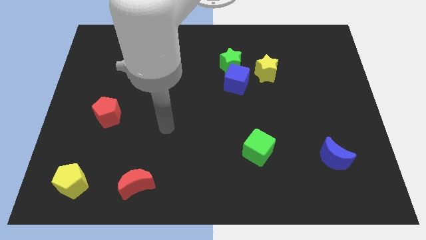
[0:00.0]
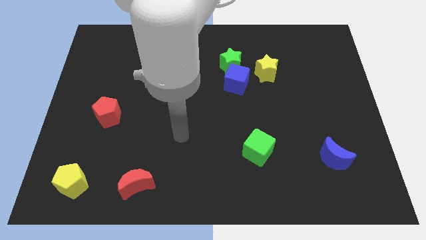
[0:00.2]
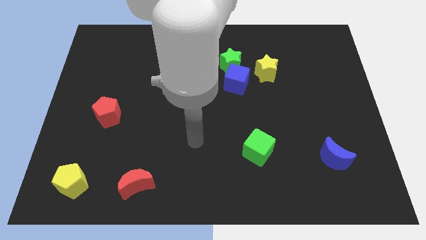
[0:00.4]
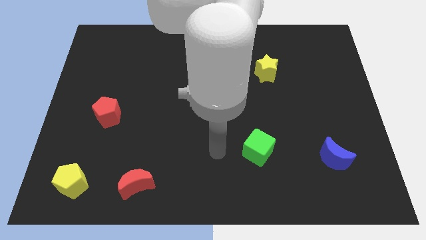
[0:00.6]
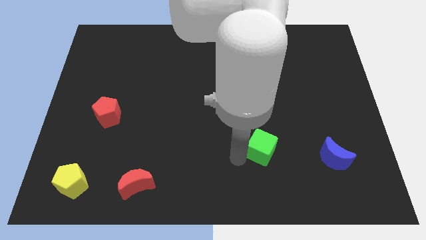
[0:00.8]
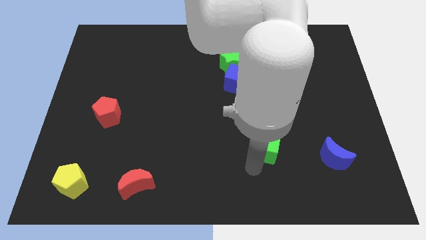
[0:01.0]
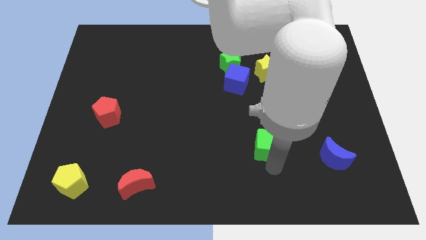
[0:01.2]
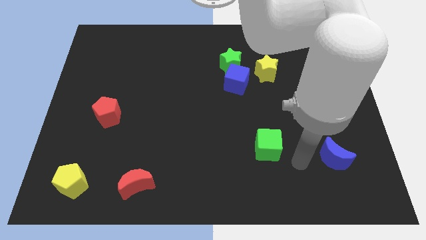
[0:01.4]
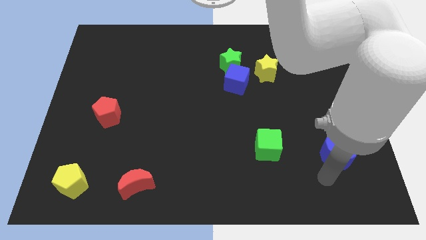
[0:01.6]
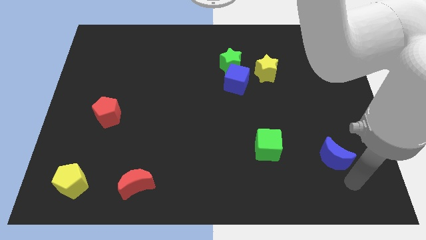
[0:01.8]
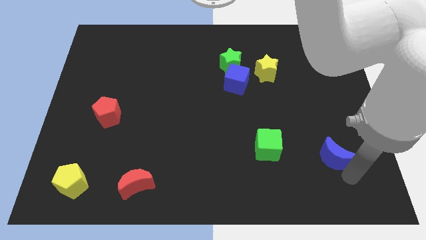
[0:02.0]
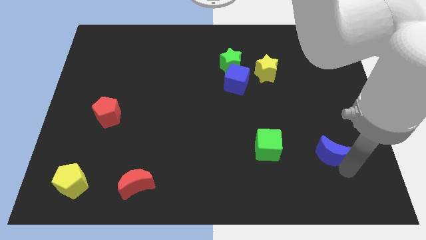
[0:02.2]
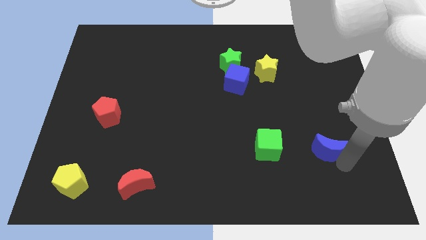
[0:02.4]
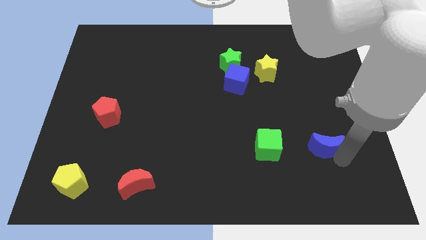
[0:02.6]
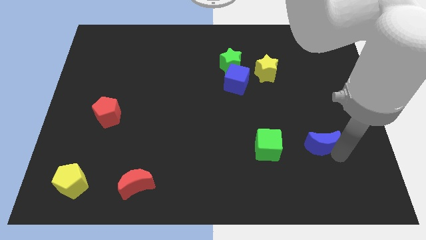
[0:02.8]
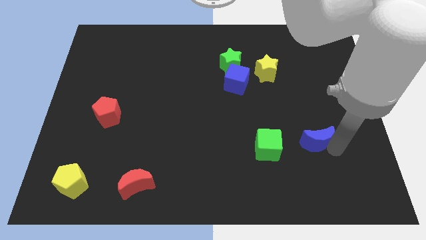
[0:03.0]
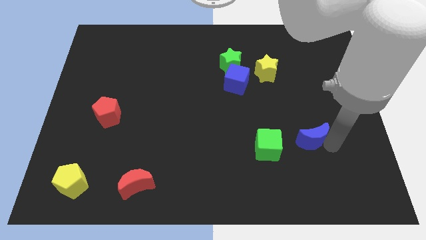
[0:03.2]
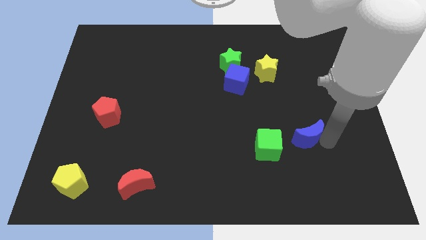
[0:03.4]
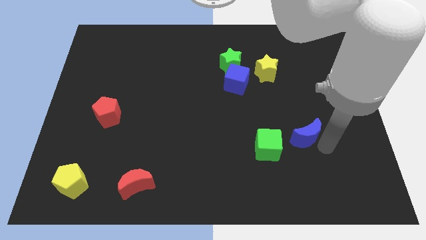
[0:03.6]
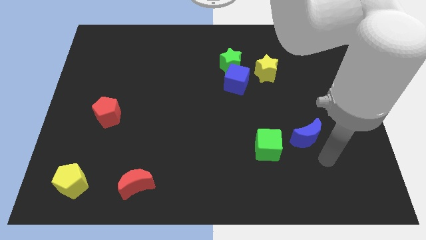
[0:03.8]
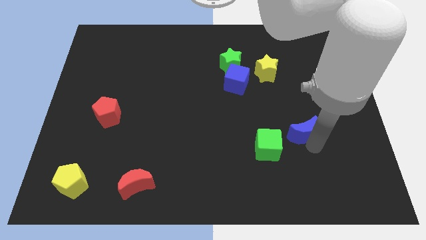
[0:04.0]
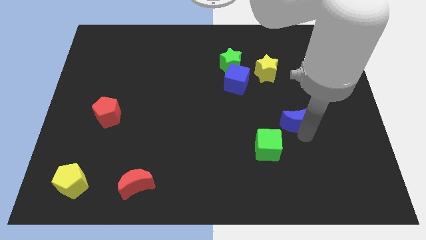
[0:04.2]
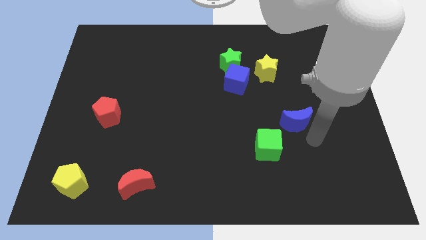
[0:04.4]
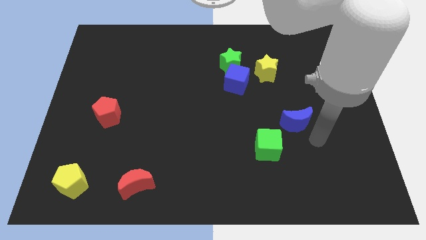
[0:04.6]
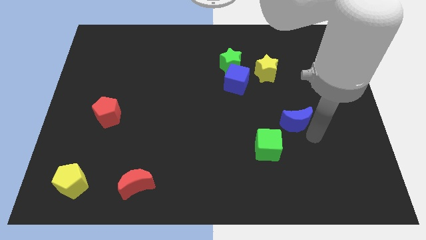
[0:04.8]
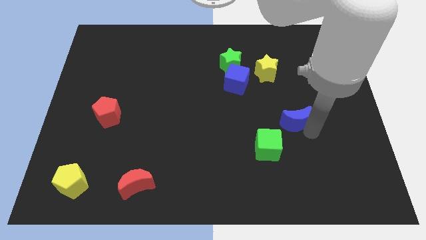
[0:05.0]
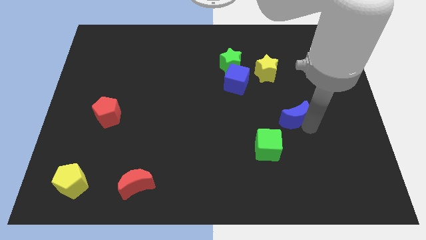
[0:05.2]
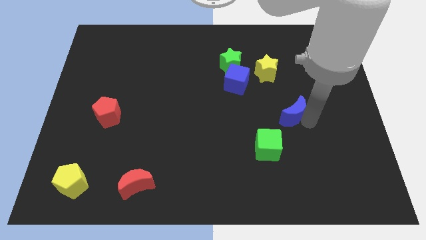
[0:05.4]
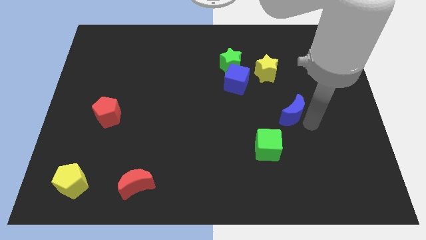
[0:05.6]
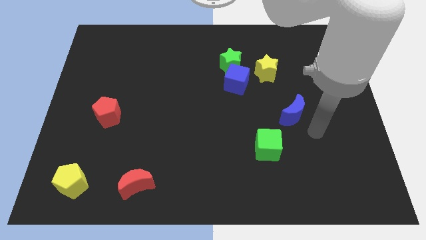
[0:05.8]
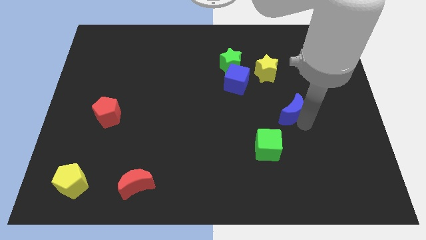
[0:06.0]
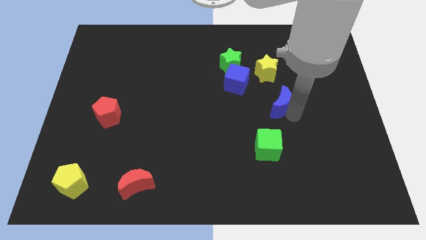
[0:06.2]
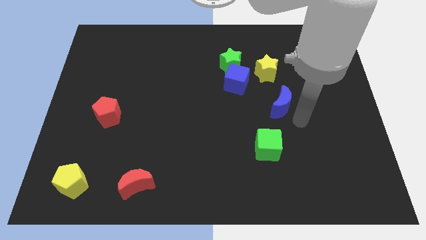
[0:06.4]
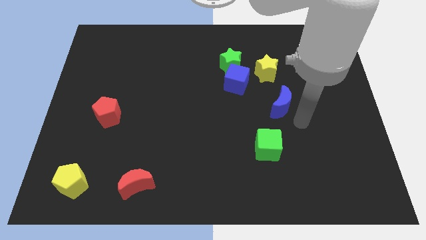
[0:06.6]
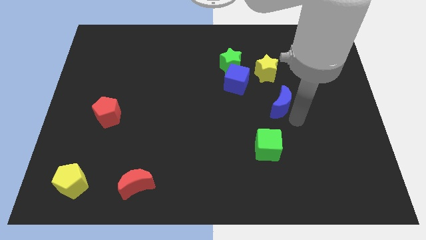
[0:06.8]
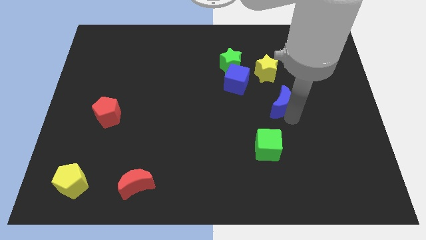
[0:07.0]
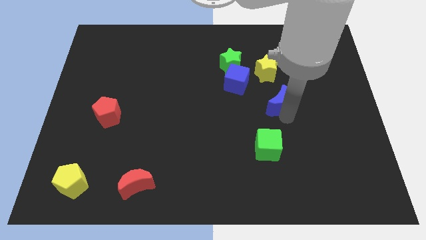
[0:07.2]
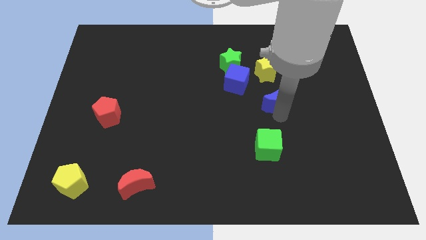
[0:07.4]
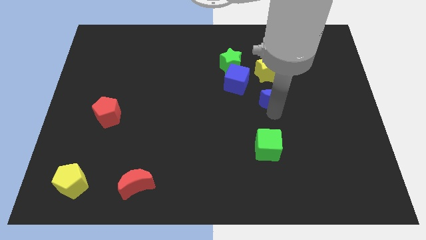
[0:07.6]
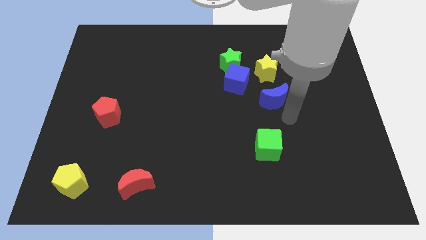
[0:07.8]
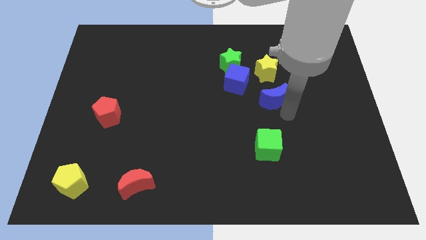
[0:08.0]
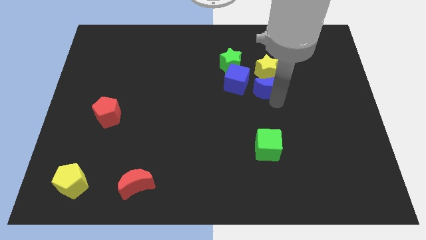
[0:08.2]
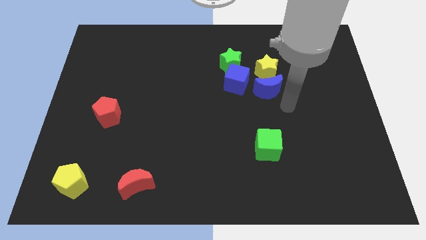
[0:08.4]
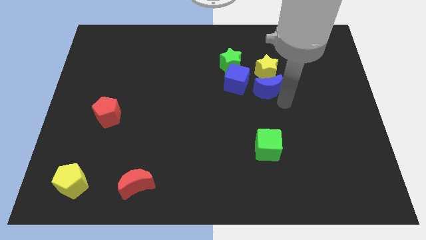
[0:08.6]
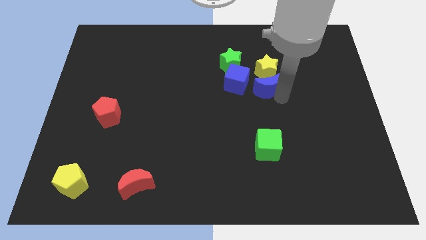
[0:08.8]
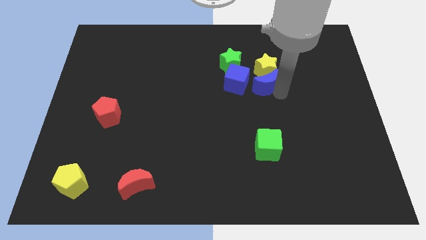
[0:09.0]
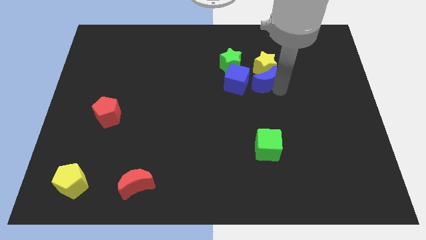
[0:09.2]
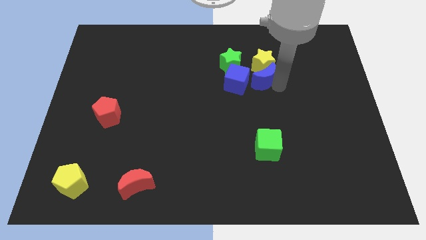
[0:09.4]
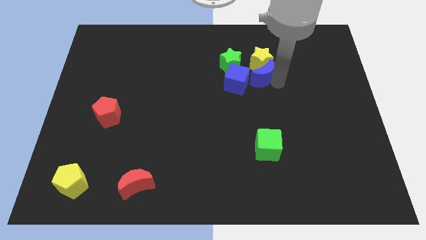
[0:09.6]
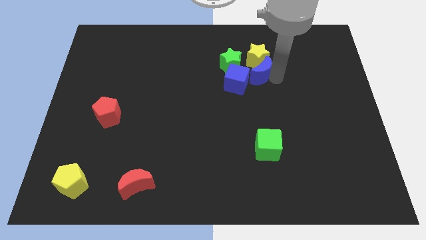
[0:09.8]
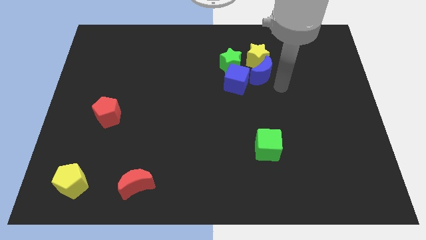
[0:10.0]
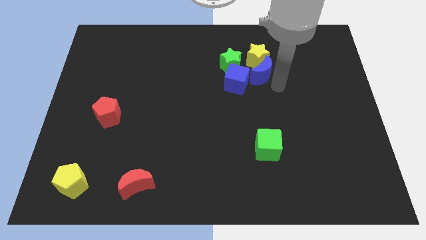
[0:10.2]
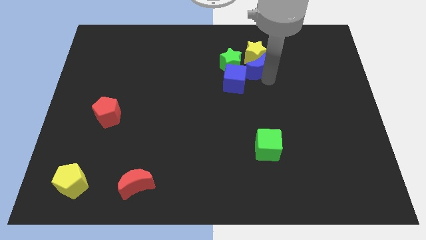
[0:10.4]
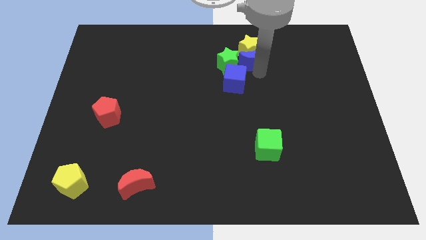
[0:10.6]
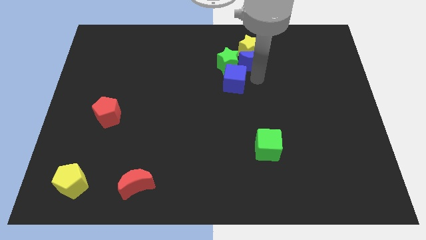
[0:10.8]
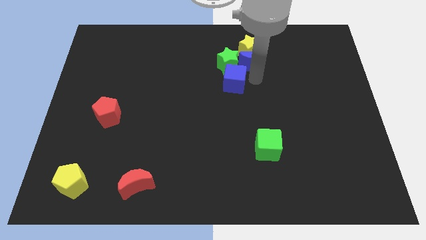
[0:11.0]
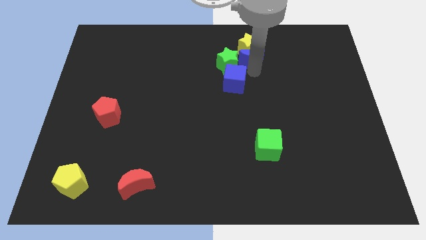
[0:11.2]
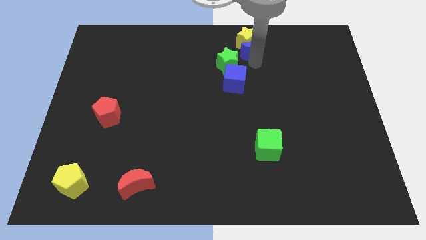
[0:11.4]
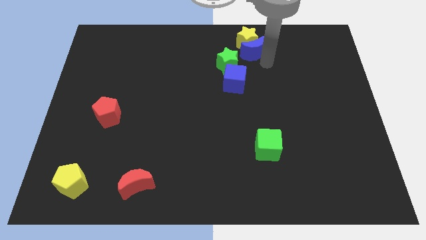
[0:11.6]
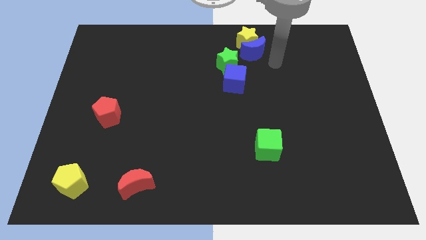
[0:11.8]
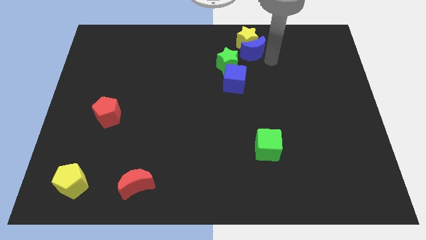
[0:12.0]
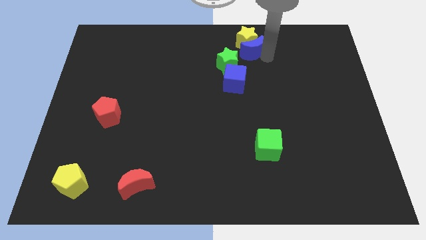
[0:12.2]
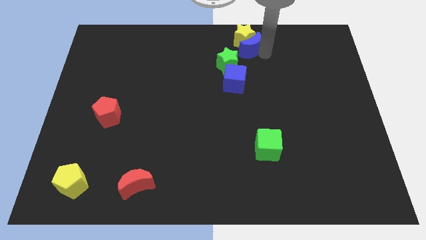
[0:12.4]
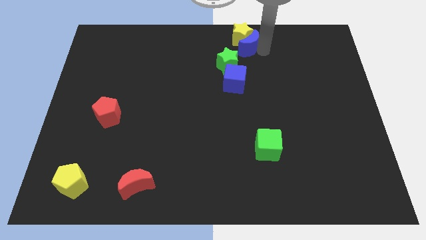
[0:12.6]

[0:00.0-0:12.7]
slide the blue moon to the top
